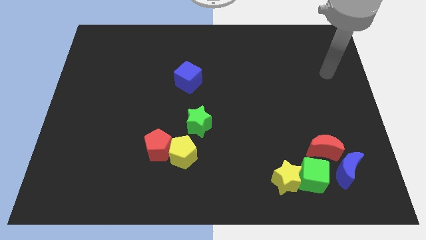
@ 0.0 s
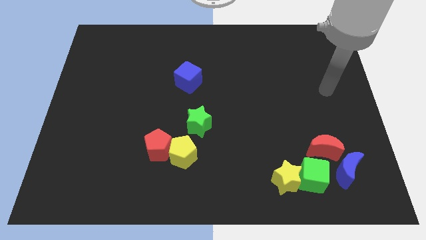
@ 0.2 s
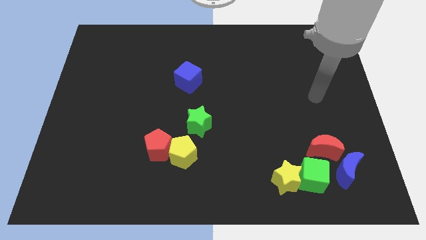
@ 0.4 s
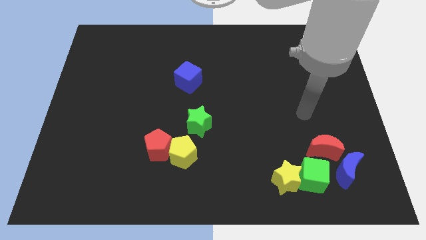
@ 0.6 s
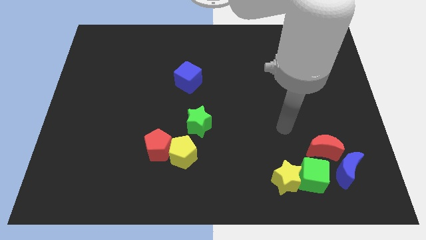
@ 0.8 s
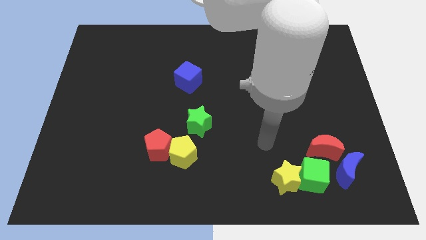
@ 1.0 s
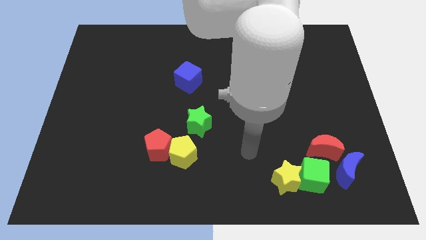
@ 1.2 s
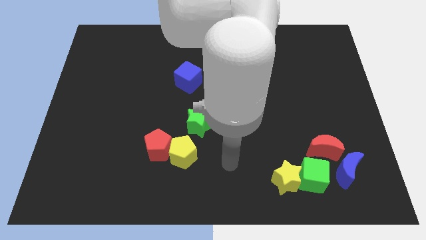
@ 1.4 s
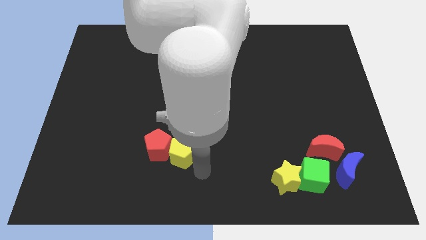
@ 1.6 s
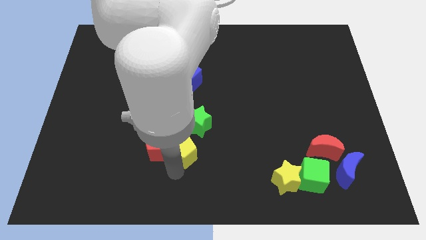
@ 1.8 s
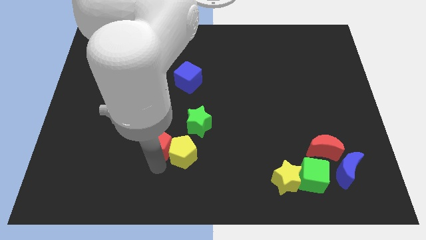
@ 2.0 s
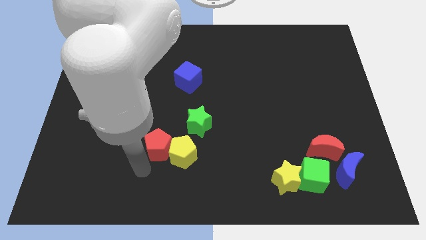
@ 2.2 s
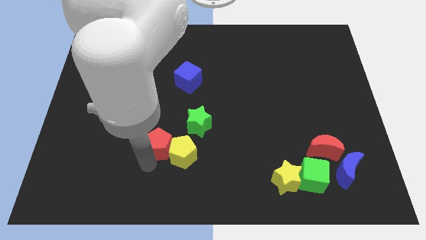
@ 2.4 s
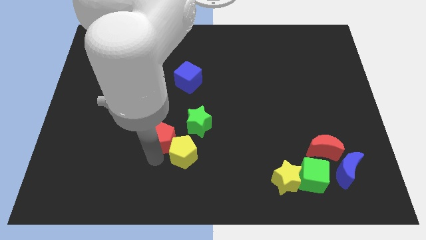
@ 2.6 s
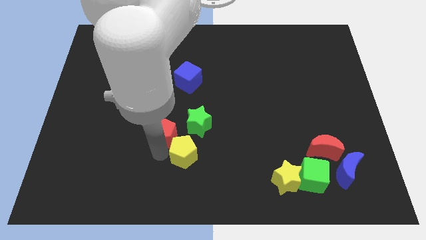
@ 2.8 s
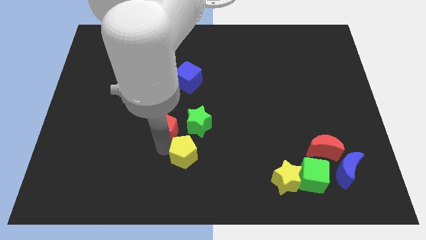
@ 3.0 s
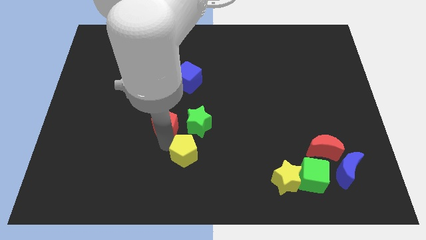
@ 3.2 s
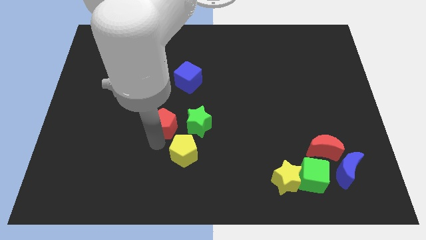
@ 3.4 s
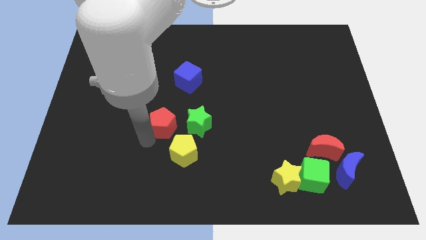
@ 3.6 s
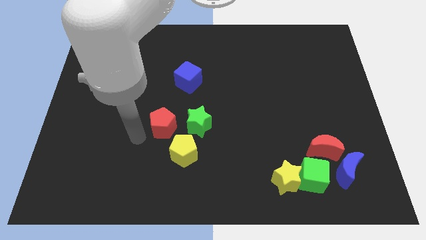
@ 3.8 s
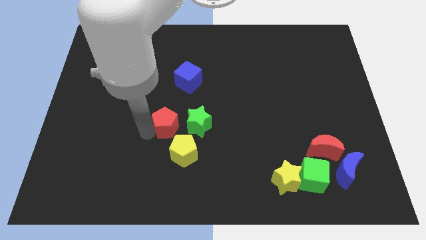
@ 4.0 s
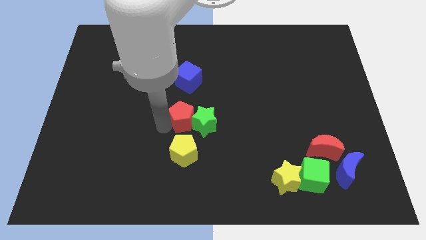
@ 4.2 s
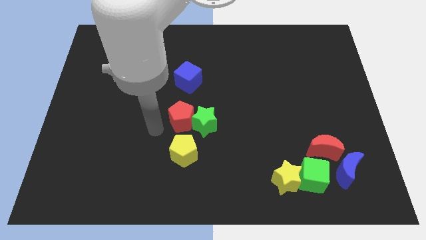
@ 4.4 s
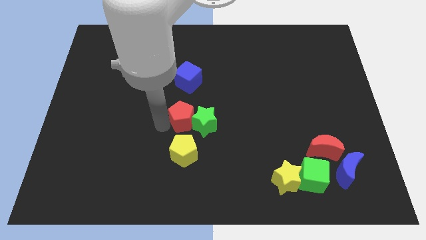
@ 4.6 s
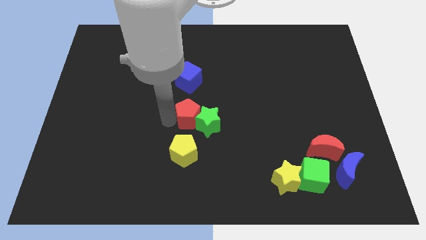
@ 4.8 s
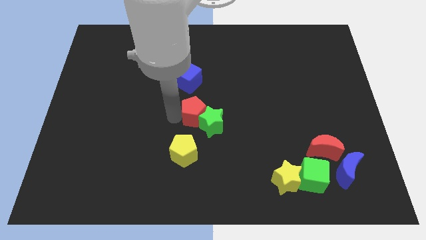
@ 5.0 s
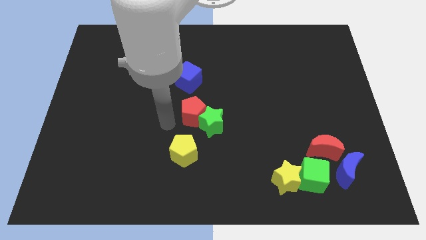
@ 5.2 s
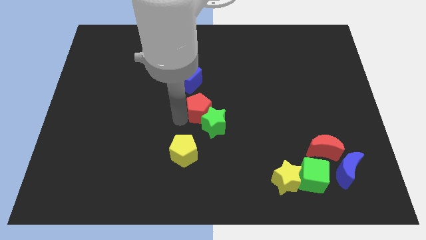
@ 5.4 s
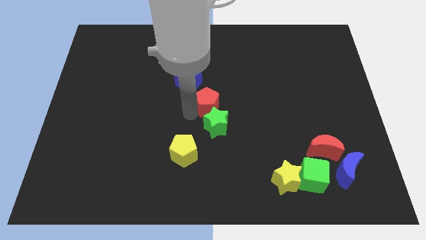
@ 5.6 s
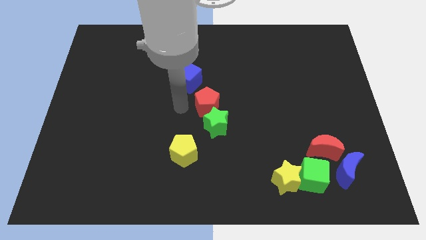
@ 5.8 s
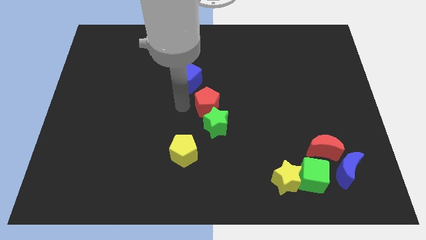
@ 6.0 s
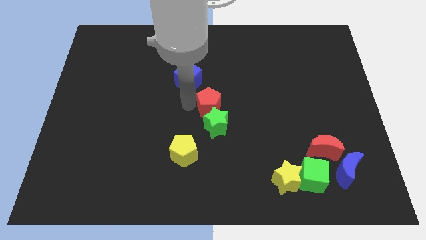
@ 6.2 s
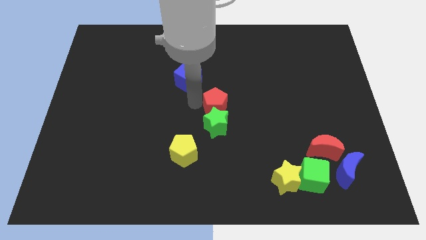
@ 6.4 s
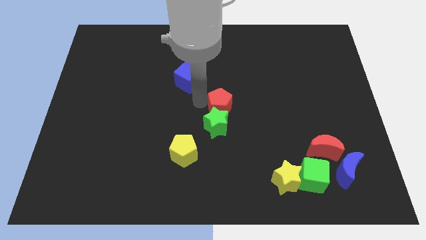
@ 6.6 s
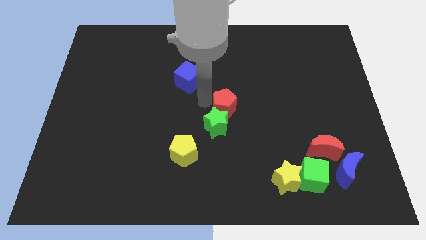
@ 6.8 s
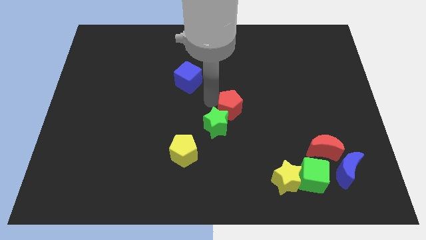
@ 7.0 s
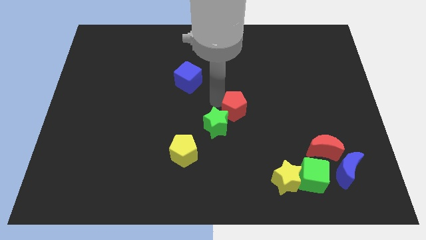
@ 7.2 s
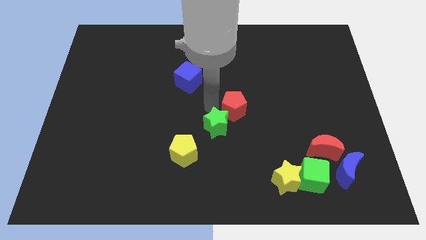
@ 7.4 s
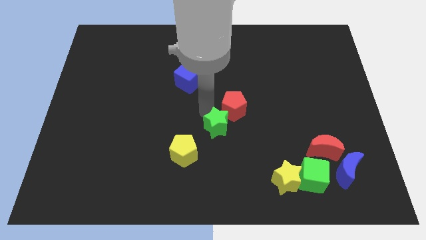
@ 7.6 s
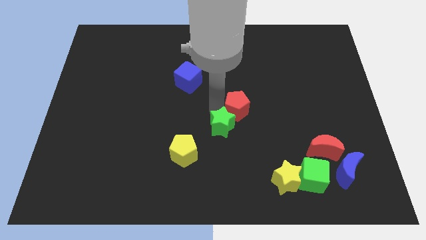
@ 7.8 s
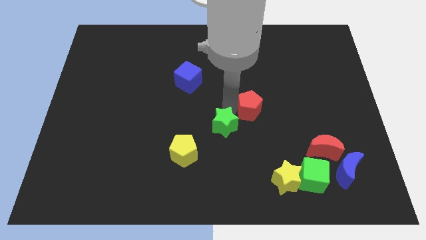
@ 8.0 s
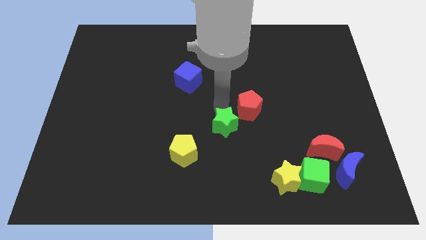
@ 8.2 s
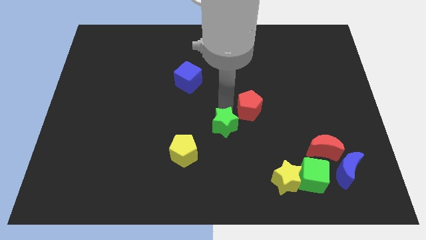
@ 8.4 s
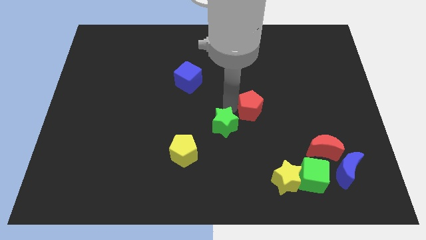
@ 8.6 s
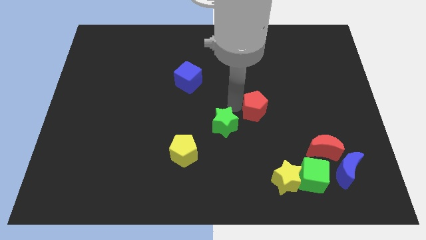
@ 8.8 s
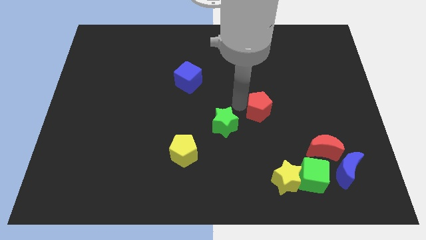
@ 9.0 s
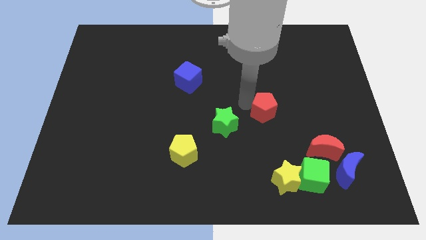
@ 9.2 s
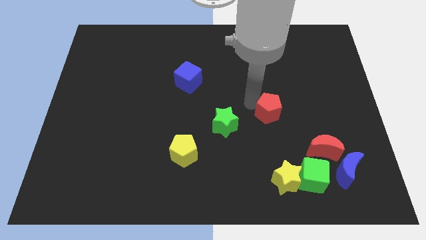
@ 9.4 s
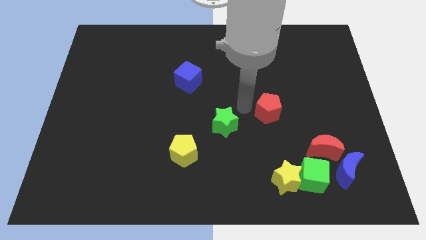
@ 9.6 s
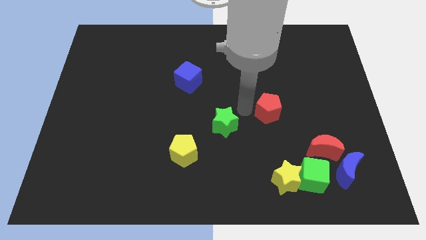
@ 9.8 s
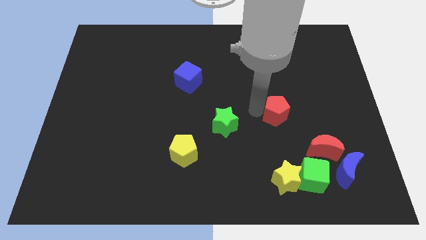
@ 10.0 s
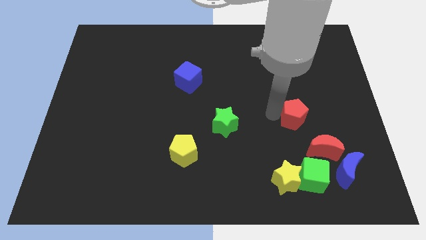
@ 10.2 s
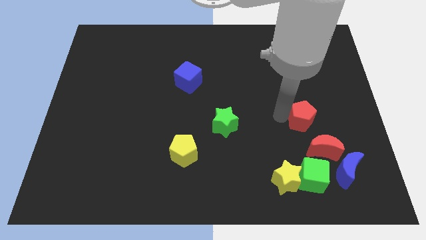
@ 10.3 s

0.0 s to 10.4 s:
slide the red pentagon above the red moon

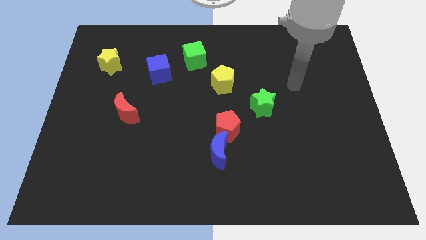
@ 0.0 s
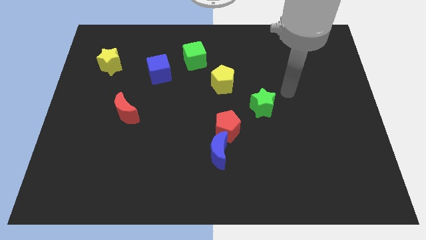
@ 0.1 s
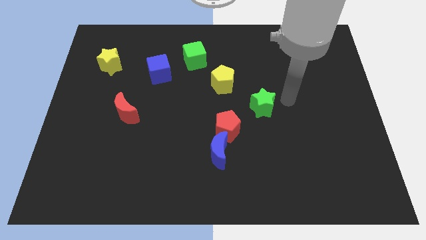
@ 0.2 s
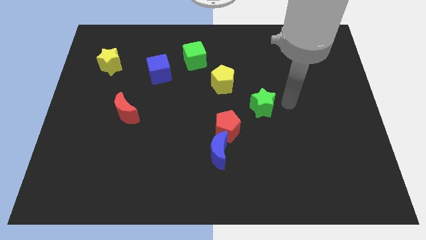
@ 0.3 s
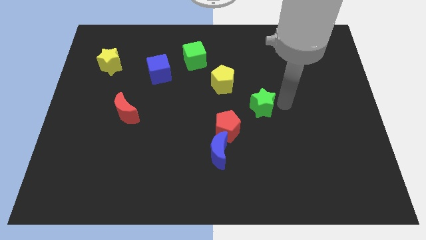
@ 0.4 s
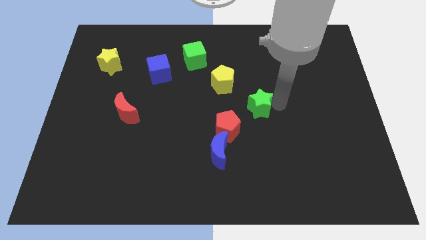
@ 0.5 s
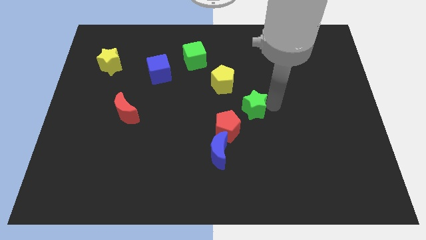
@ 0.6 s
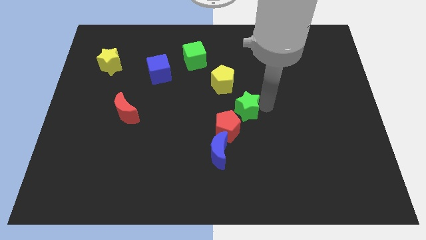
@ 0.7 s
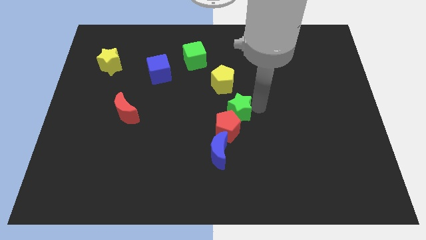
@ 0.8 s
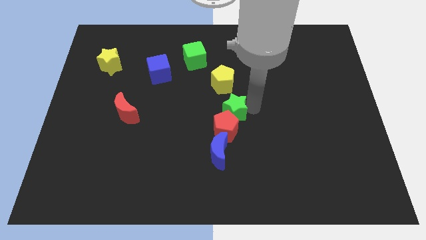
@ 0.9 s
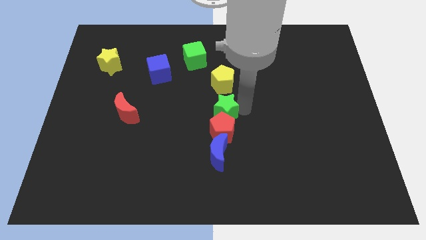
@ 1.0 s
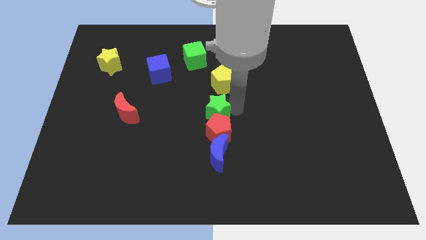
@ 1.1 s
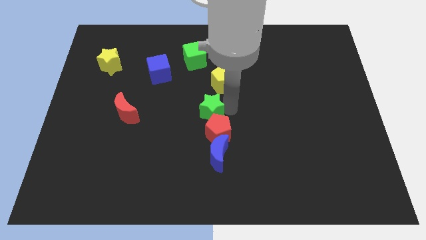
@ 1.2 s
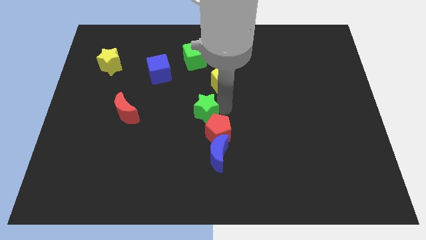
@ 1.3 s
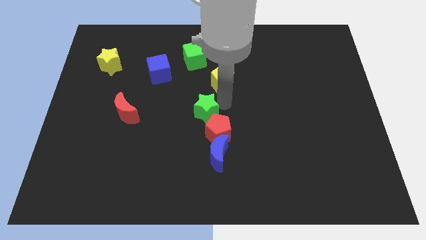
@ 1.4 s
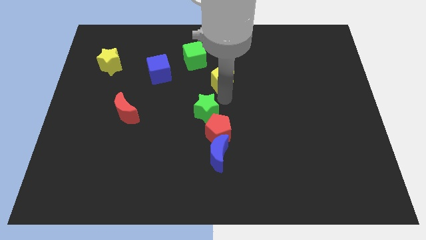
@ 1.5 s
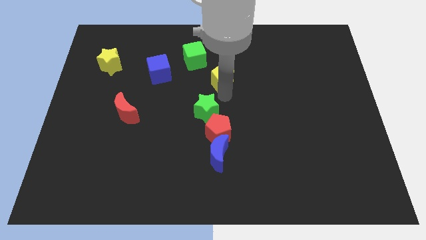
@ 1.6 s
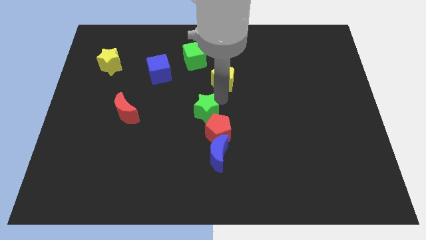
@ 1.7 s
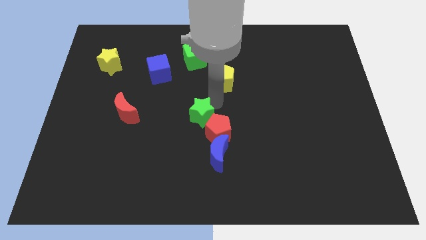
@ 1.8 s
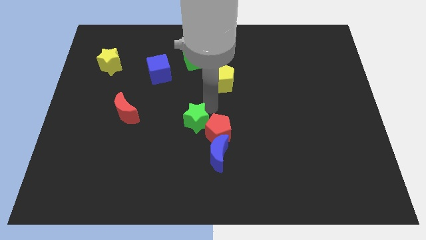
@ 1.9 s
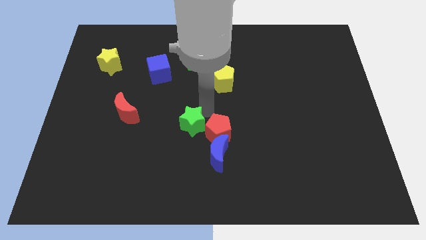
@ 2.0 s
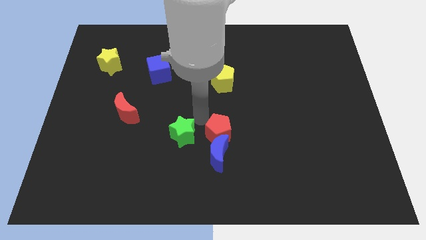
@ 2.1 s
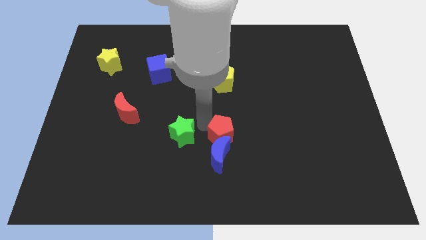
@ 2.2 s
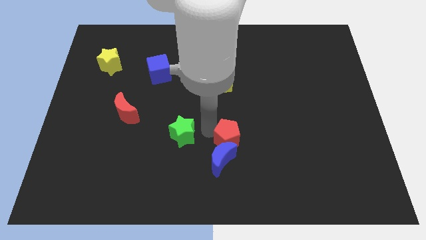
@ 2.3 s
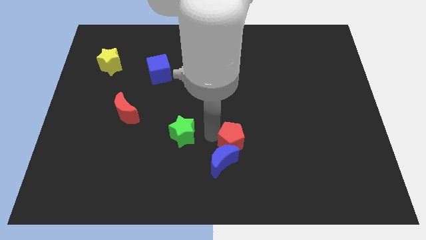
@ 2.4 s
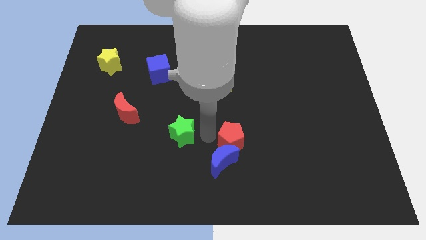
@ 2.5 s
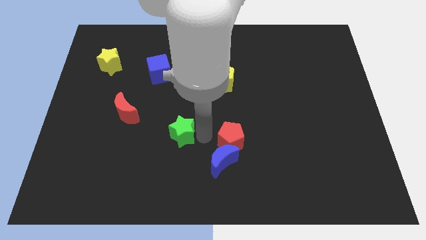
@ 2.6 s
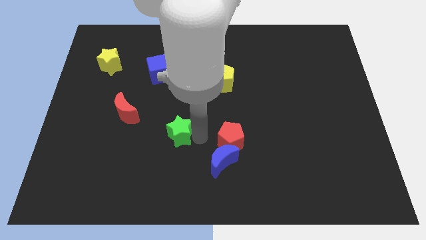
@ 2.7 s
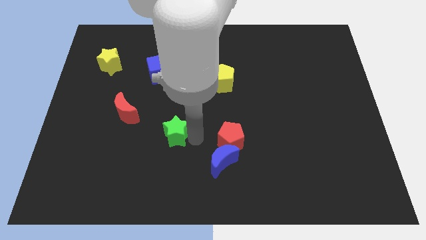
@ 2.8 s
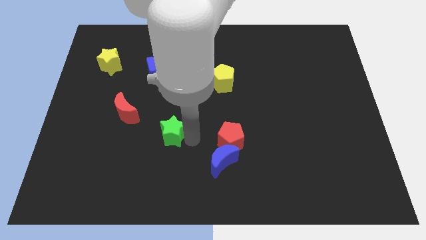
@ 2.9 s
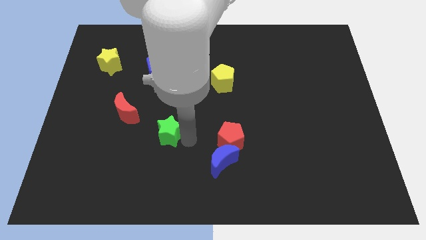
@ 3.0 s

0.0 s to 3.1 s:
push the green star diagonally down and to the right of the red moon
